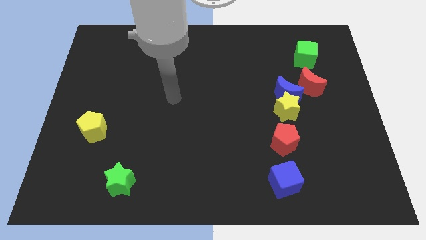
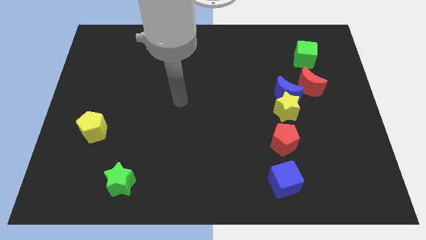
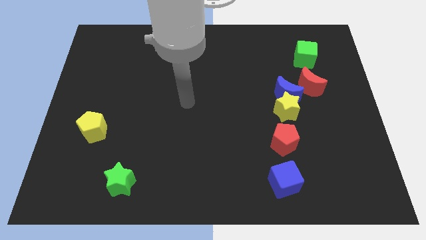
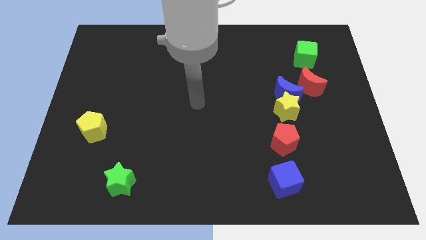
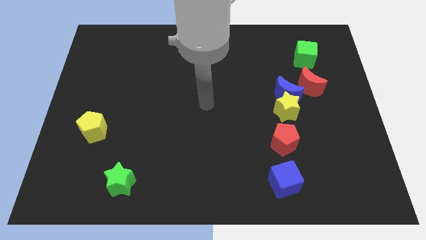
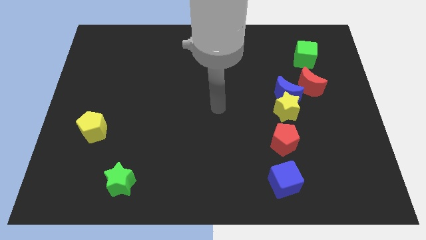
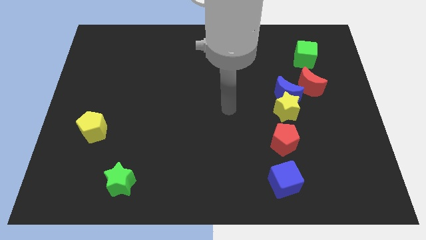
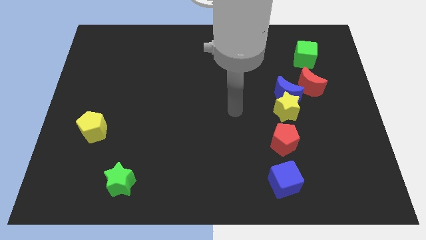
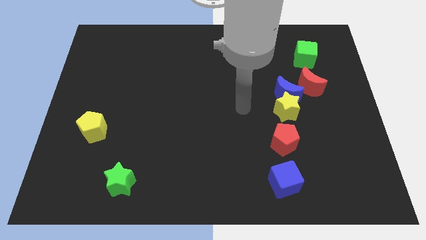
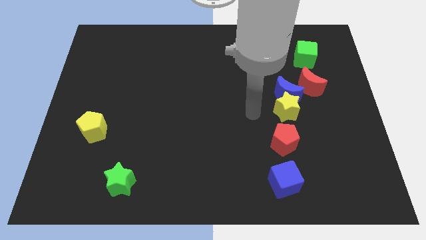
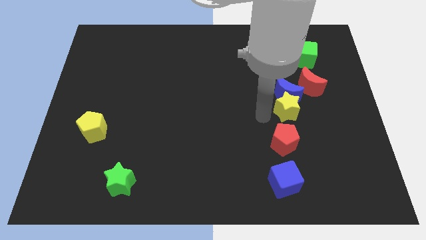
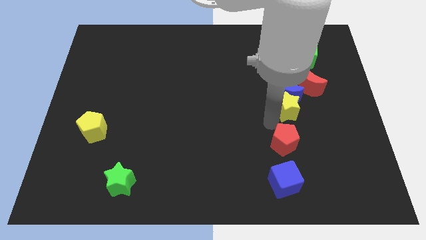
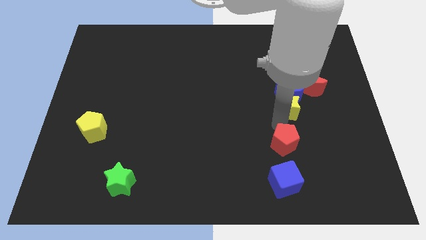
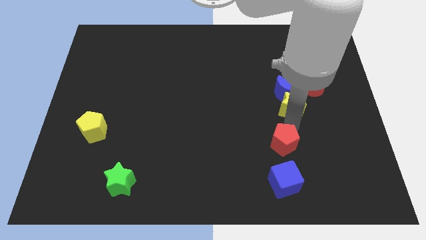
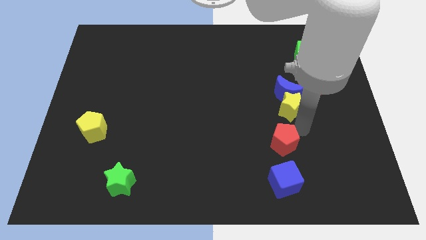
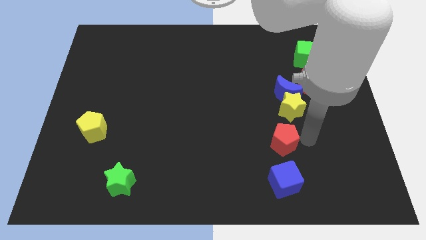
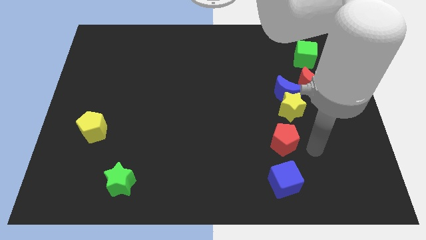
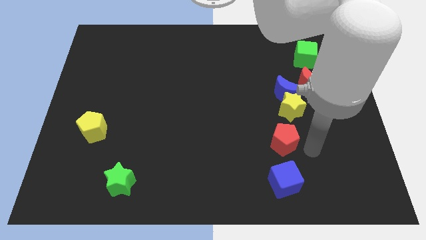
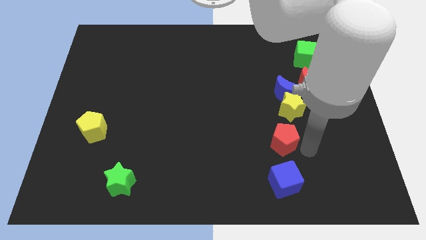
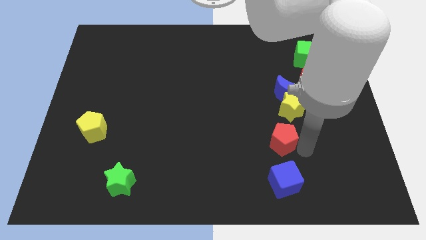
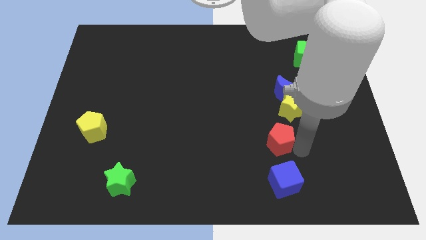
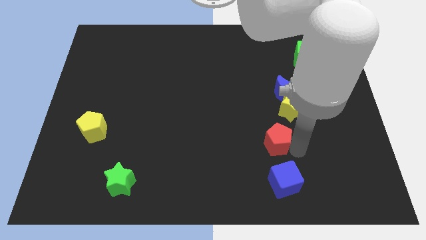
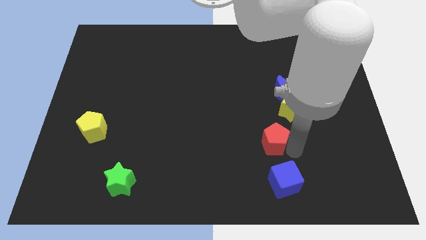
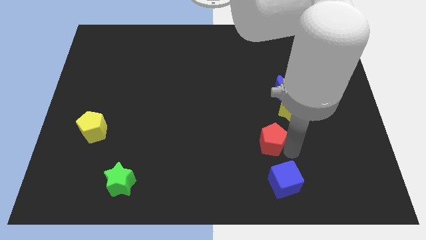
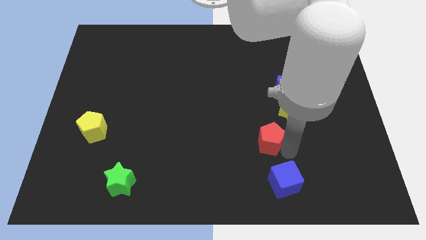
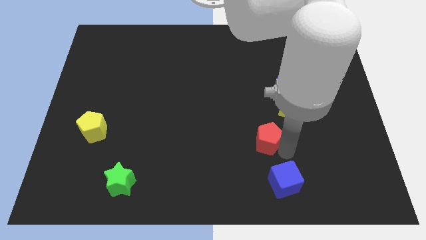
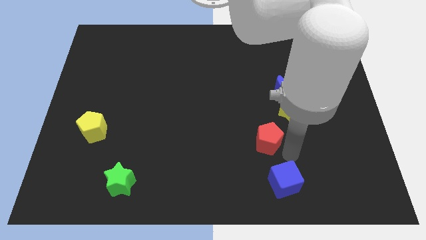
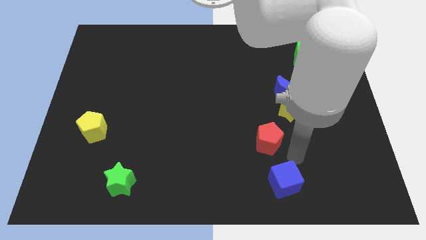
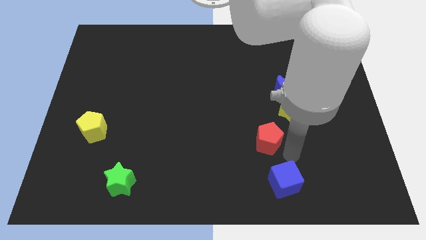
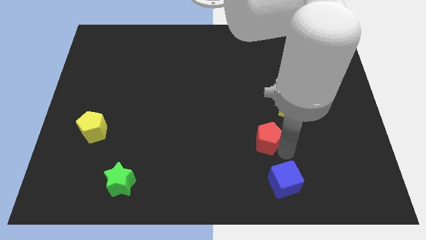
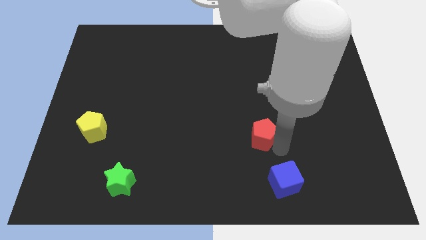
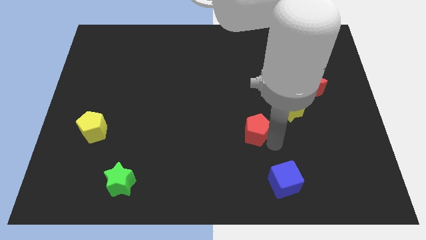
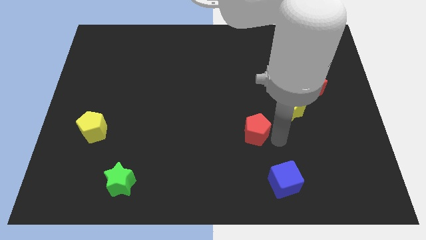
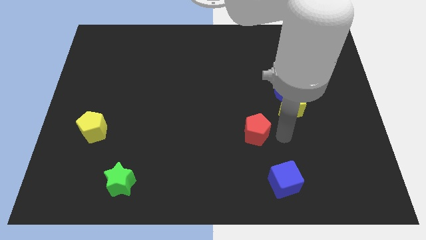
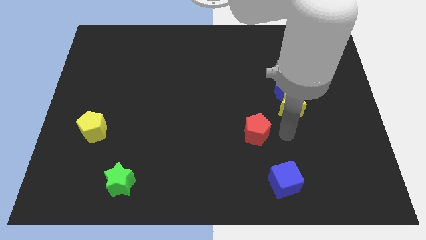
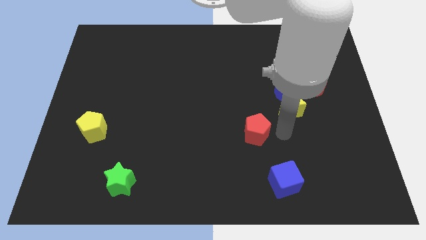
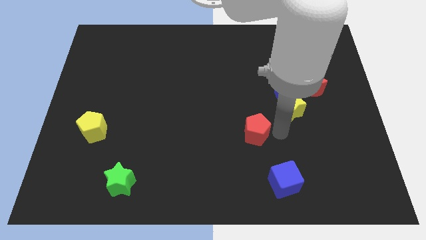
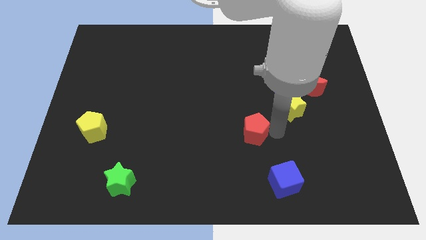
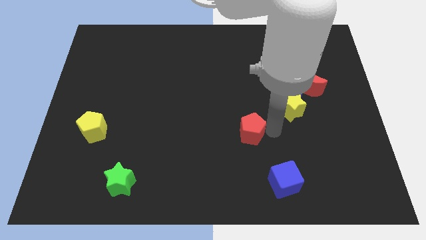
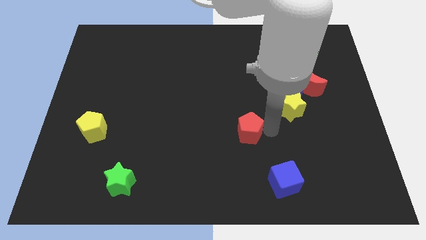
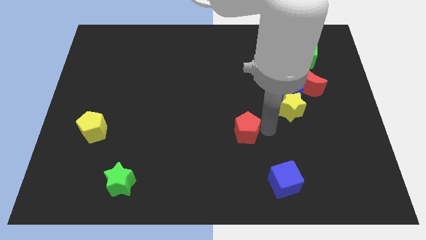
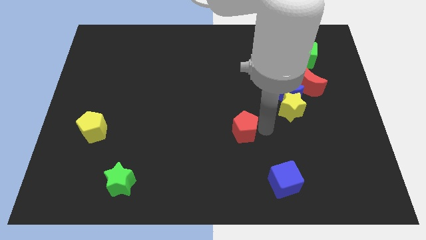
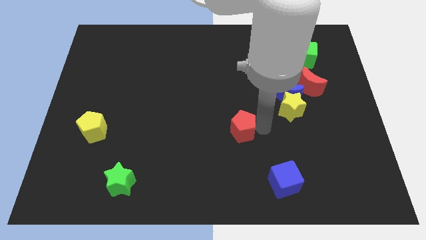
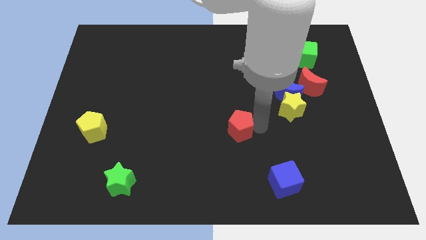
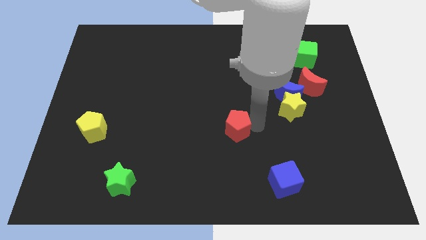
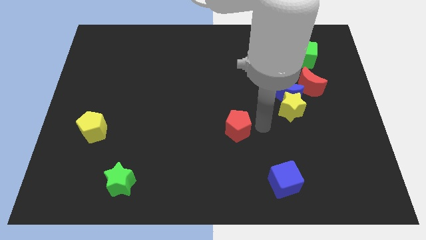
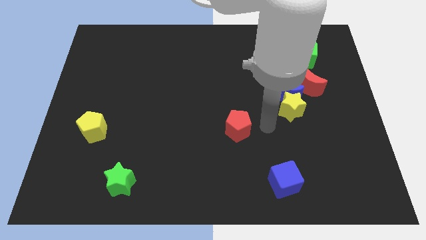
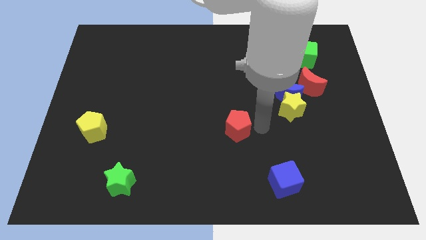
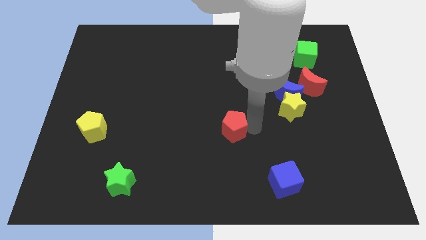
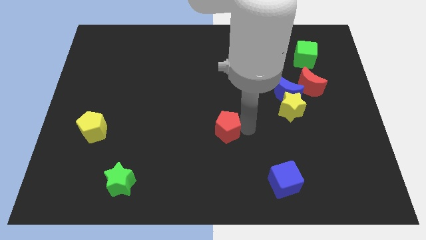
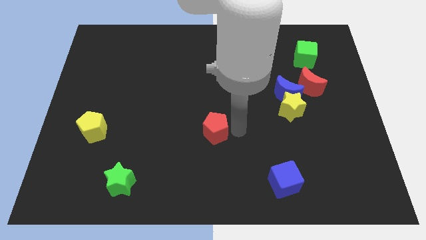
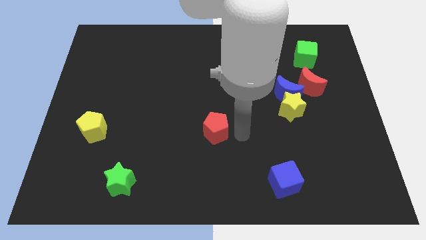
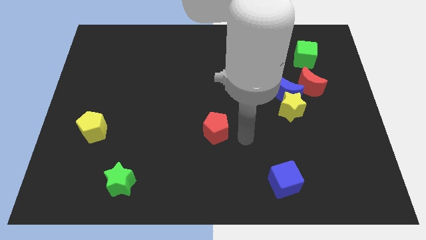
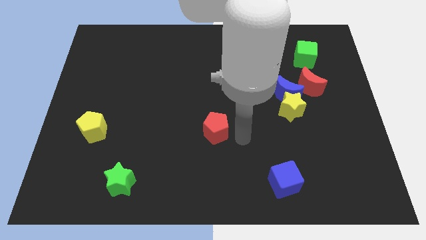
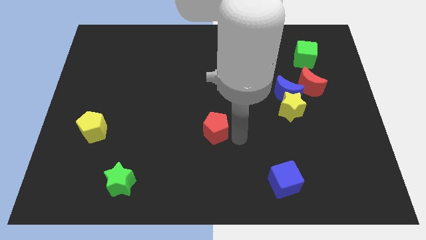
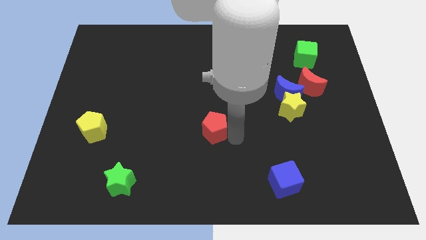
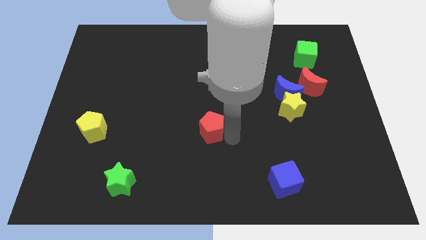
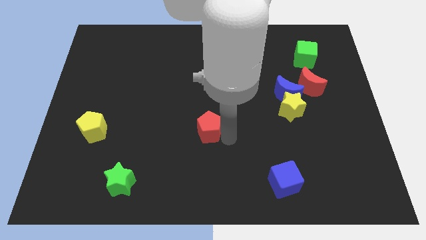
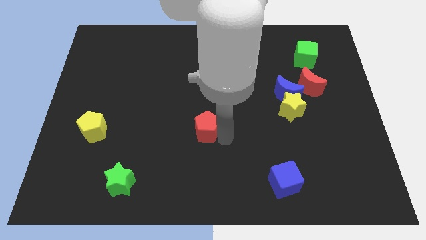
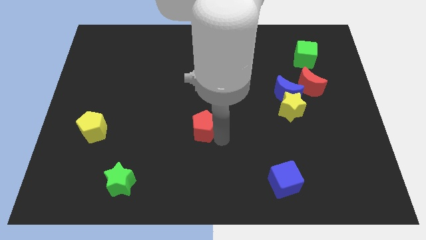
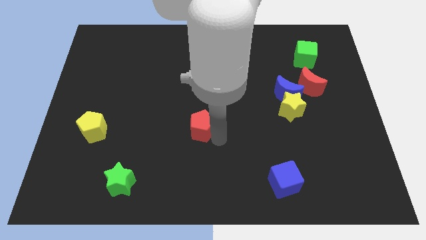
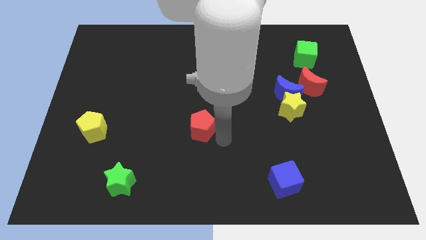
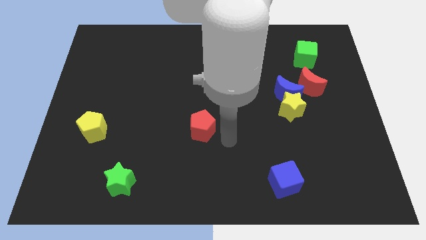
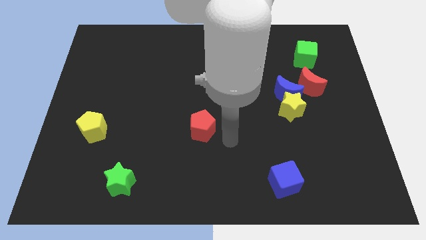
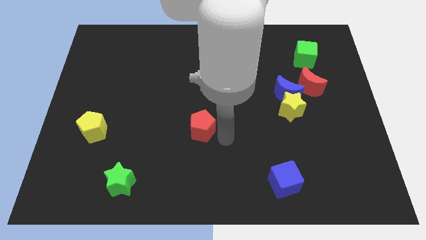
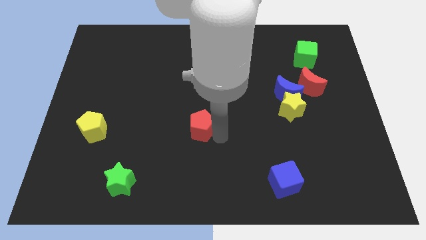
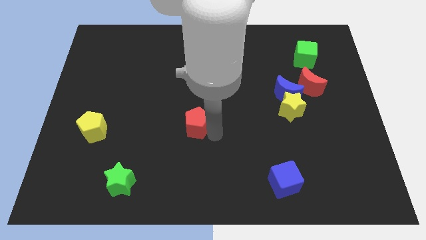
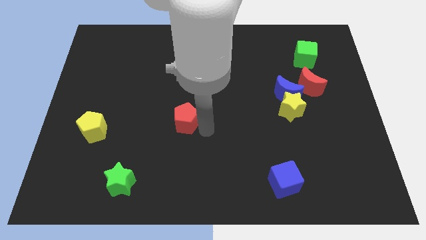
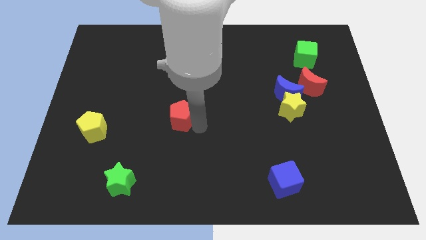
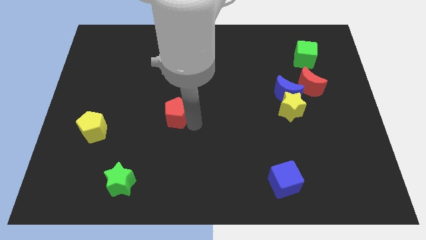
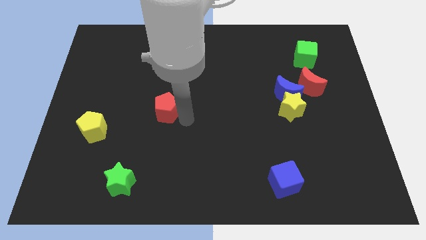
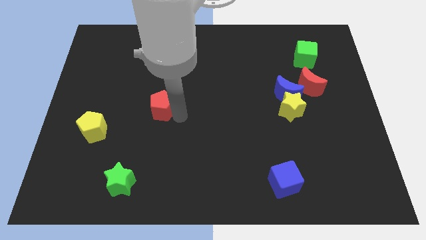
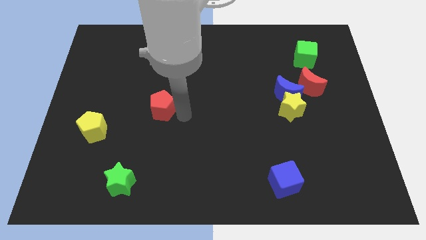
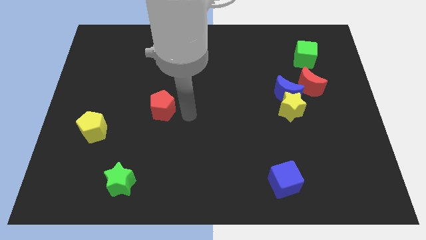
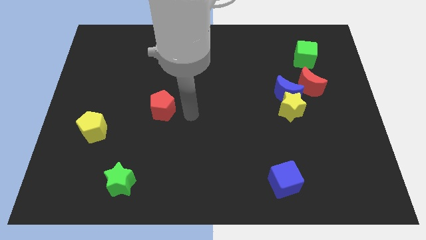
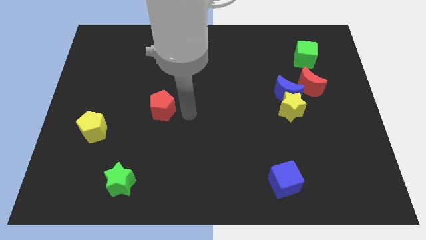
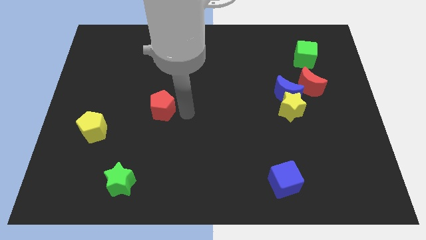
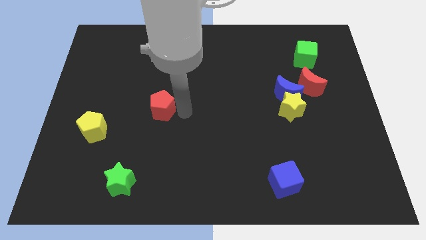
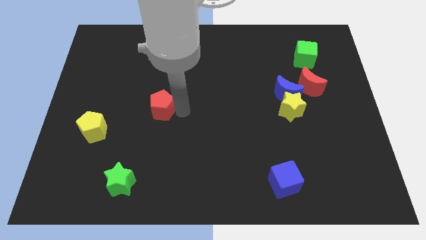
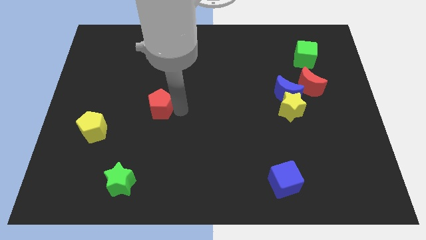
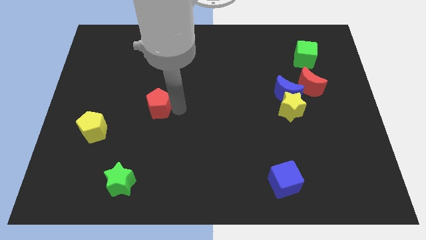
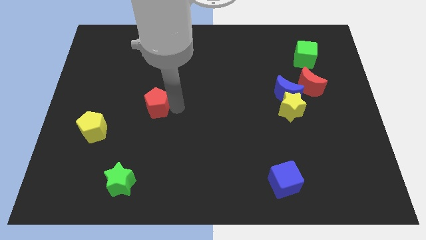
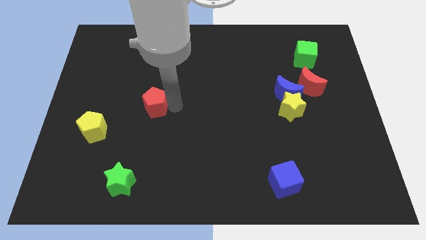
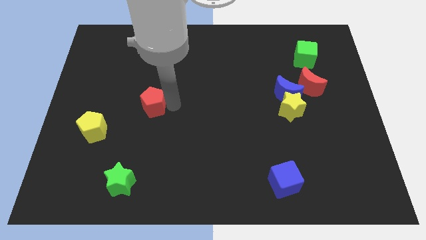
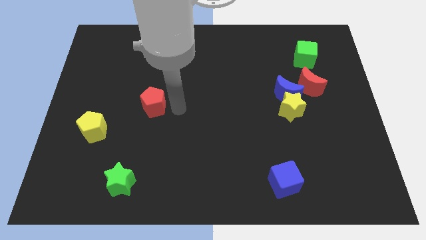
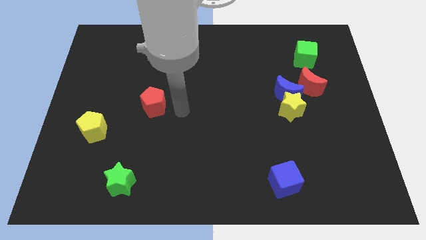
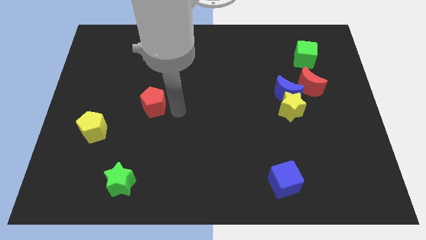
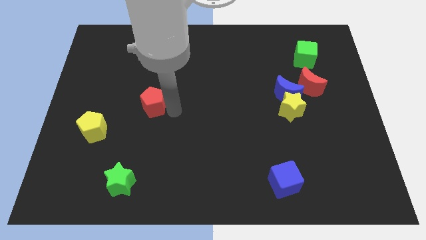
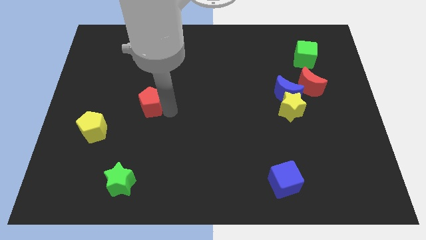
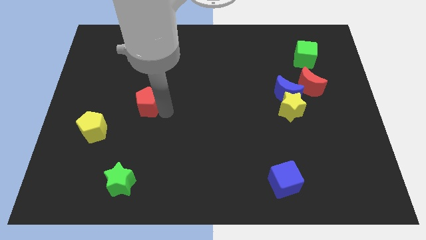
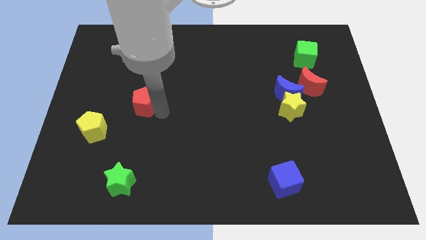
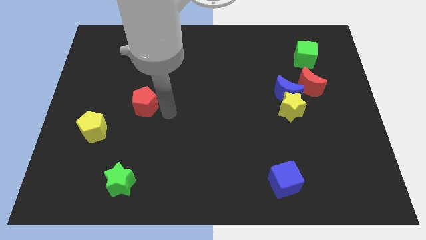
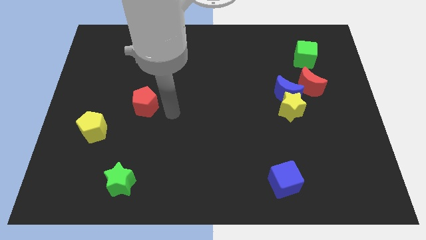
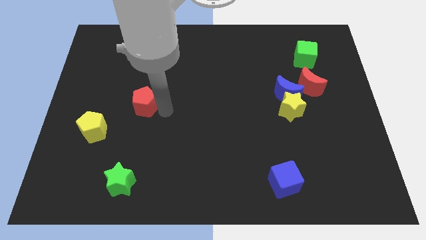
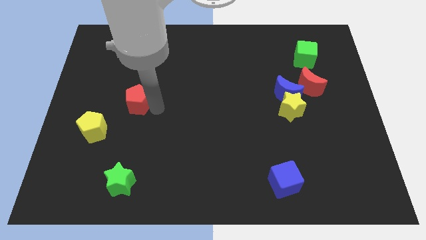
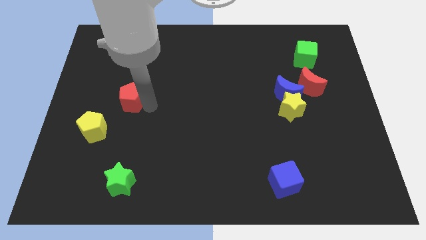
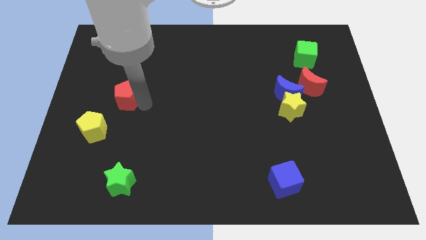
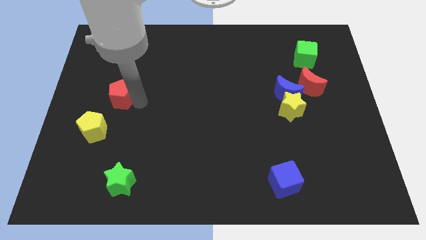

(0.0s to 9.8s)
put the red pentagon to the top side of the yellow pentagon
